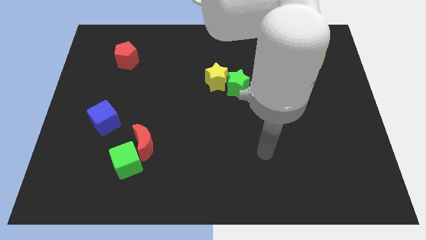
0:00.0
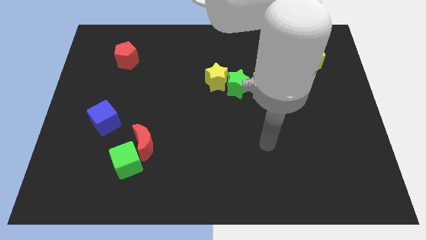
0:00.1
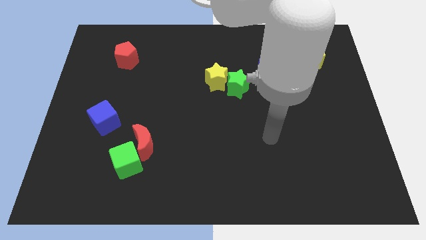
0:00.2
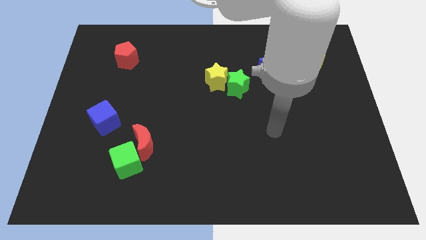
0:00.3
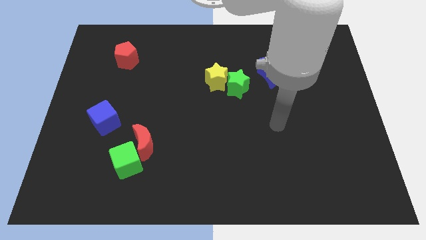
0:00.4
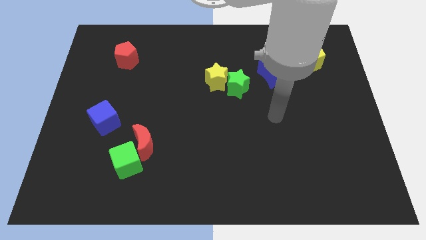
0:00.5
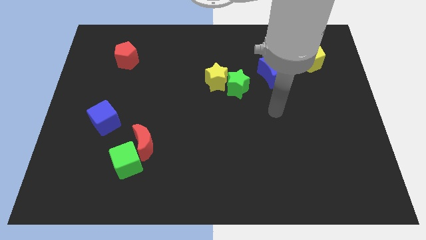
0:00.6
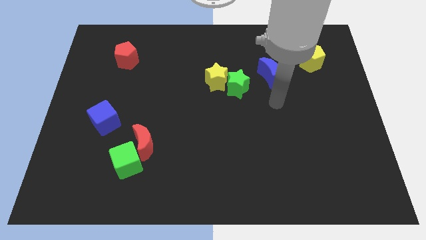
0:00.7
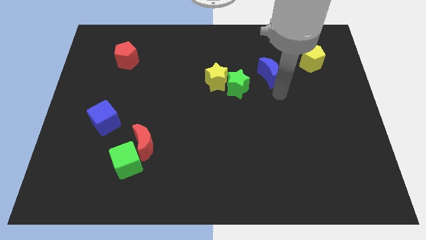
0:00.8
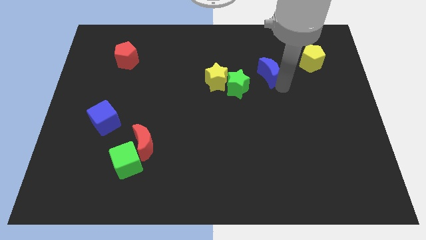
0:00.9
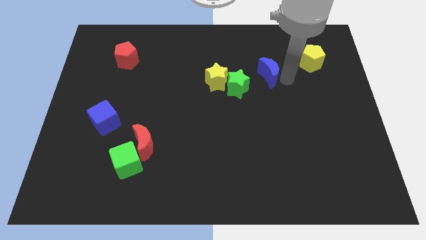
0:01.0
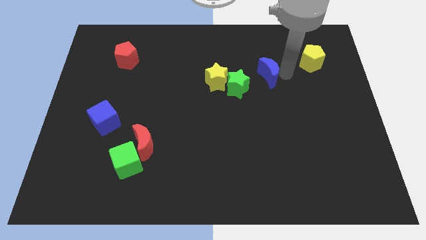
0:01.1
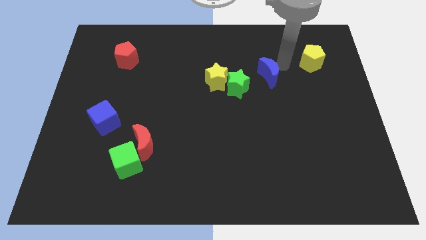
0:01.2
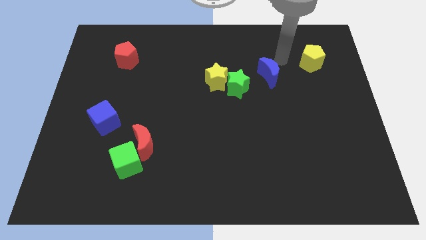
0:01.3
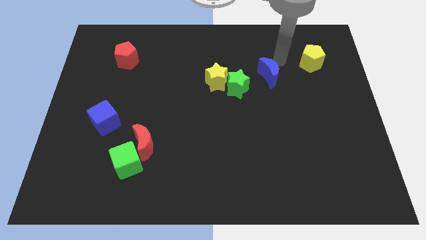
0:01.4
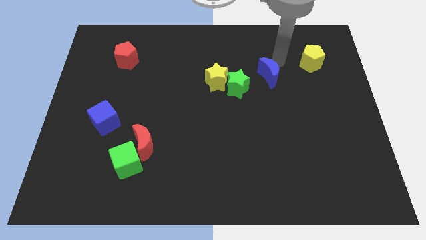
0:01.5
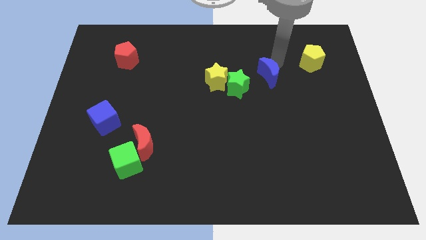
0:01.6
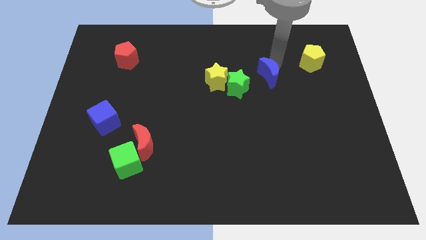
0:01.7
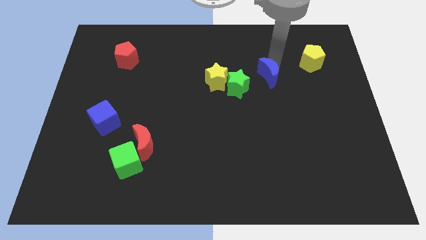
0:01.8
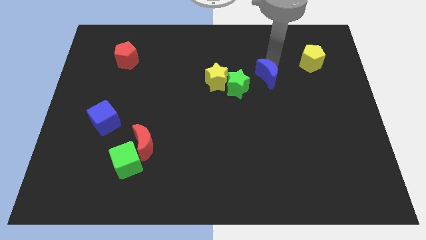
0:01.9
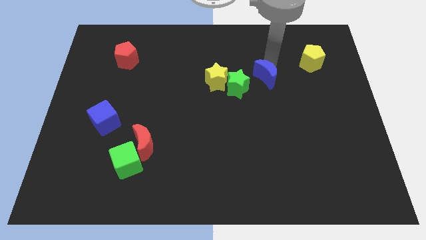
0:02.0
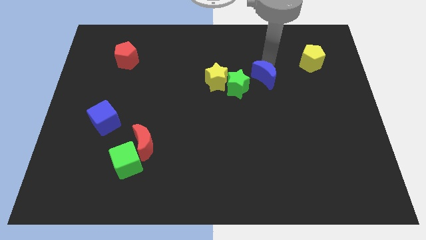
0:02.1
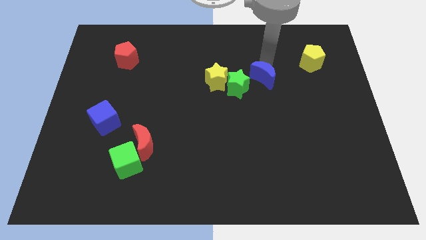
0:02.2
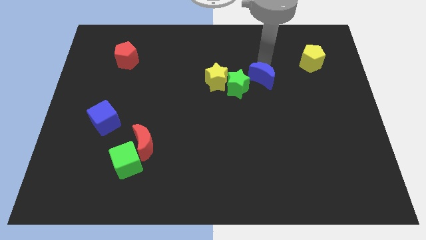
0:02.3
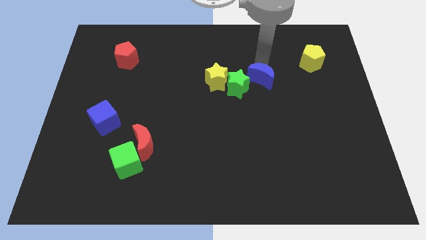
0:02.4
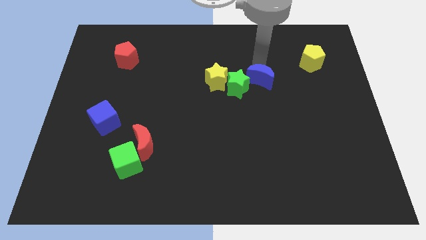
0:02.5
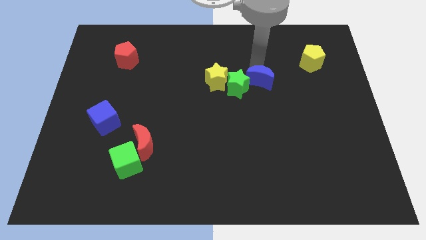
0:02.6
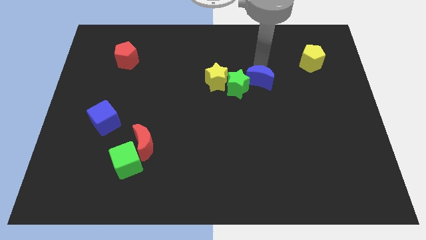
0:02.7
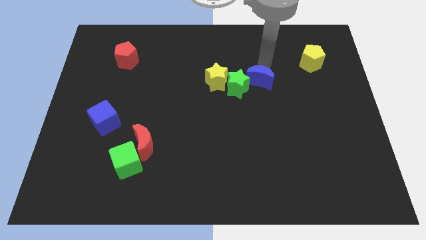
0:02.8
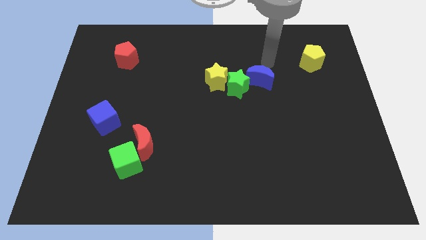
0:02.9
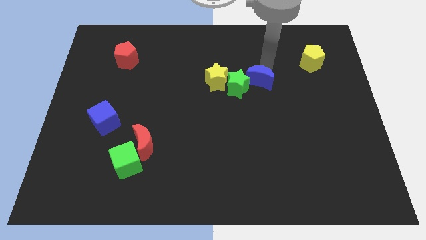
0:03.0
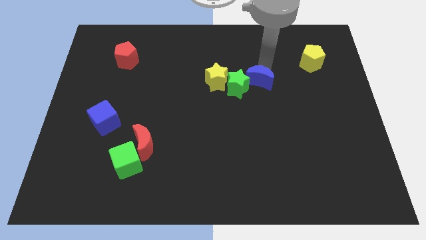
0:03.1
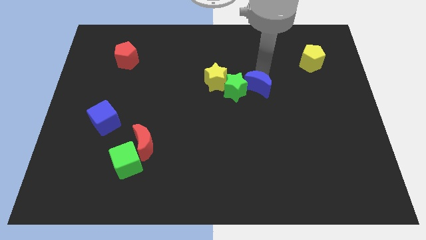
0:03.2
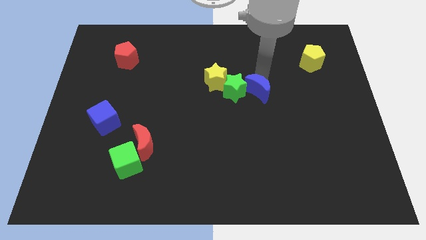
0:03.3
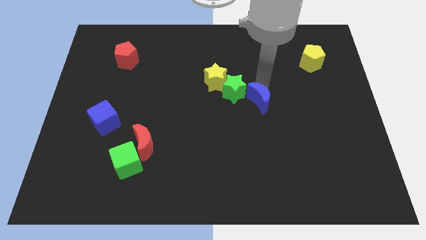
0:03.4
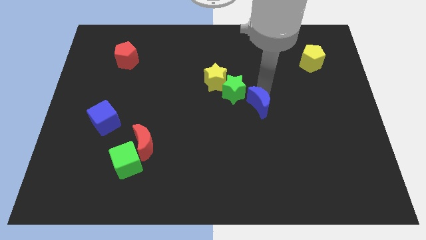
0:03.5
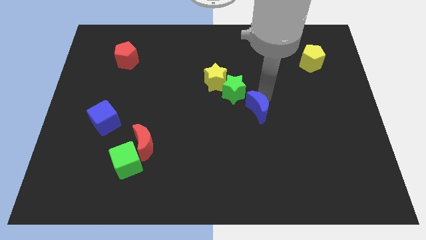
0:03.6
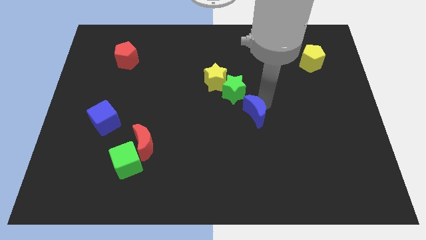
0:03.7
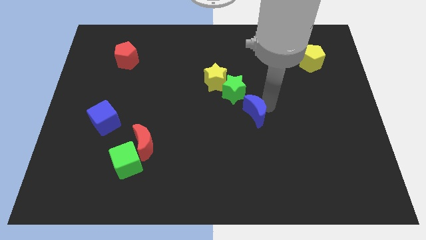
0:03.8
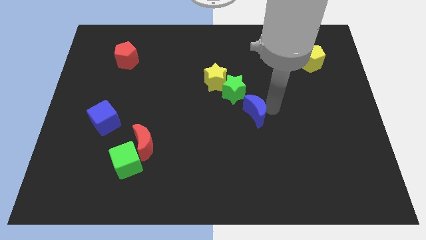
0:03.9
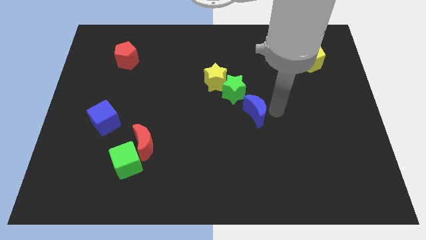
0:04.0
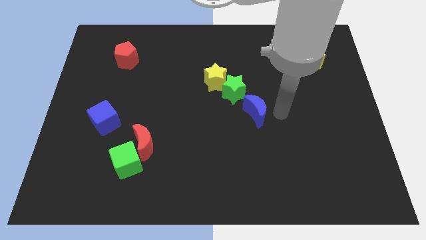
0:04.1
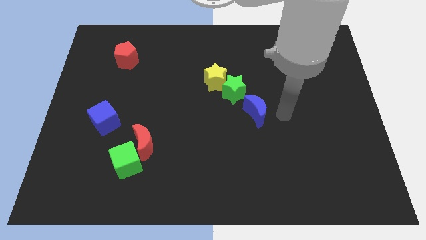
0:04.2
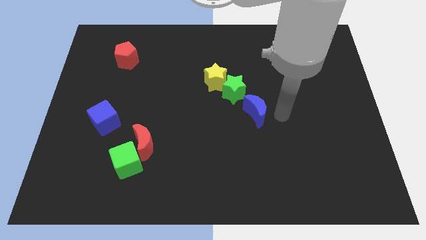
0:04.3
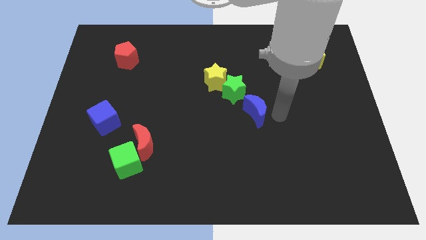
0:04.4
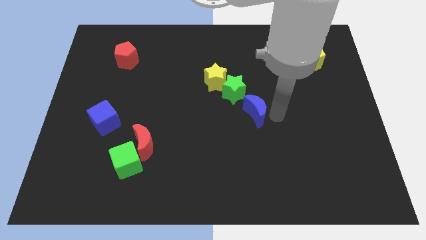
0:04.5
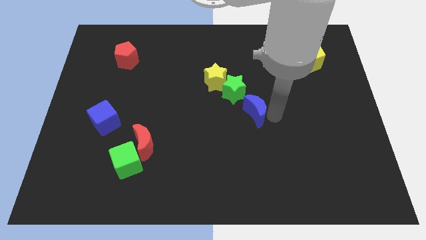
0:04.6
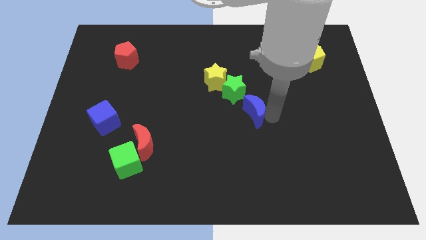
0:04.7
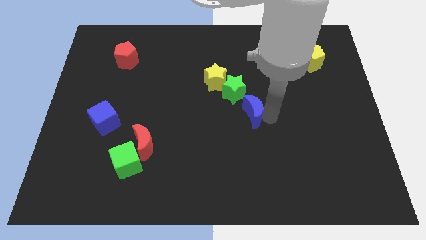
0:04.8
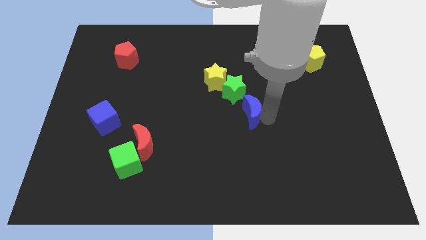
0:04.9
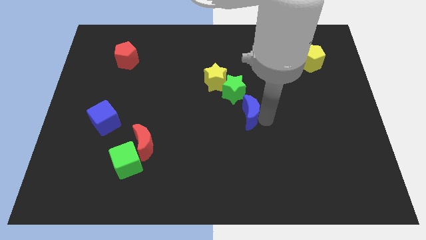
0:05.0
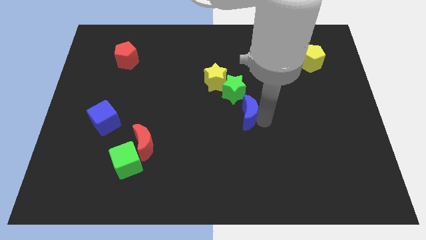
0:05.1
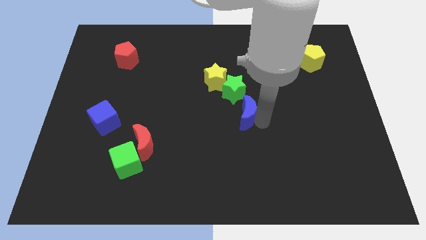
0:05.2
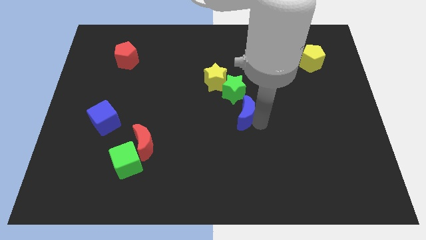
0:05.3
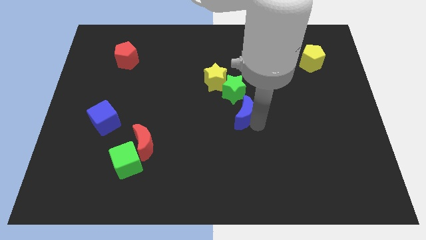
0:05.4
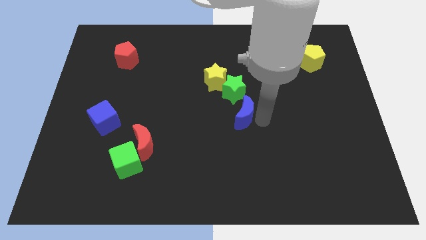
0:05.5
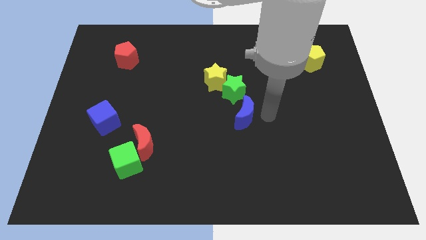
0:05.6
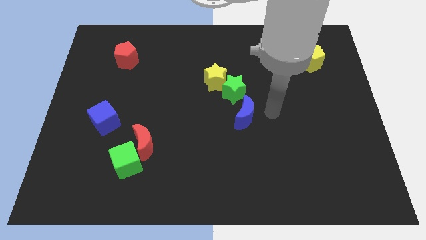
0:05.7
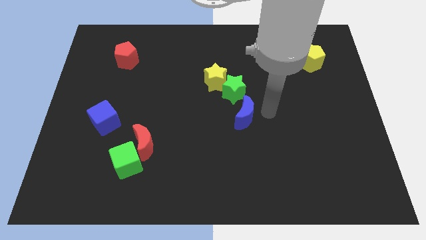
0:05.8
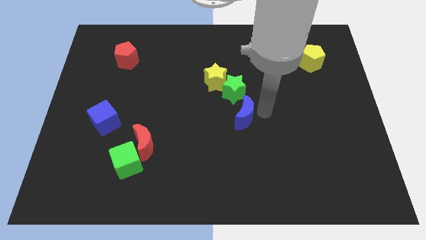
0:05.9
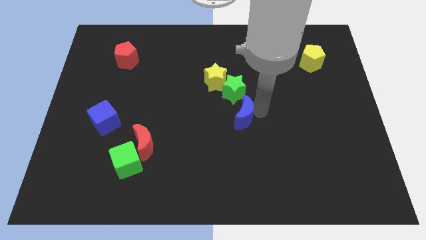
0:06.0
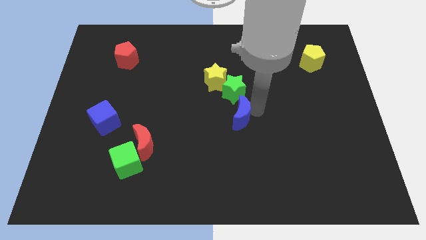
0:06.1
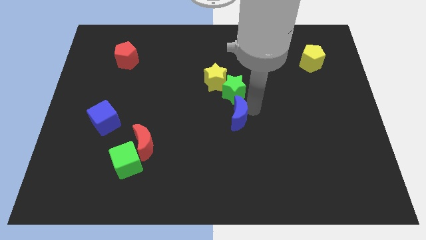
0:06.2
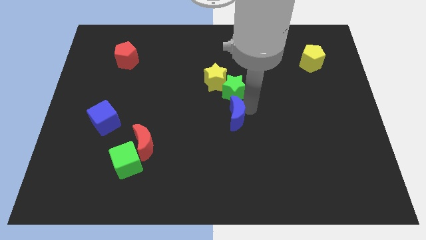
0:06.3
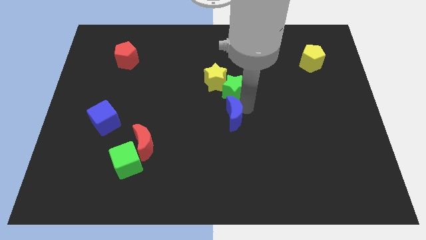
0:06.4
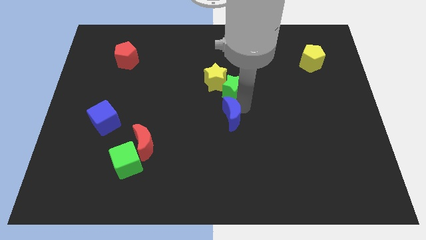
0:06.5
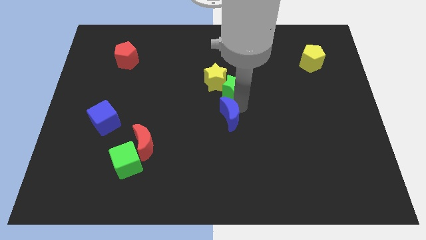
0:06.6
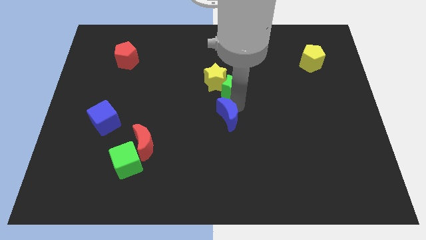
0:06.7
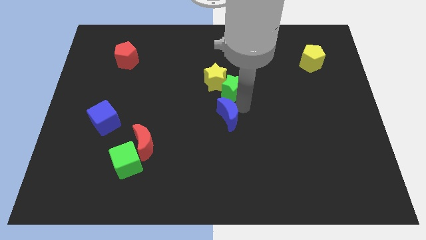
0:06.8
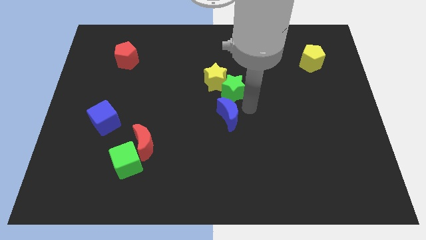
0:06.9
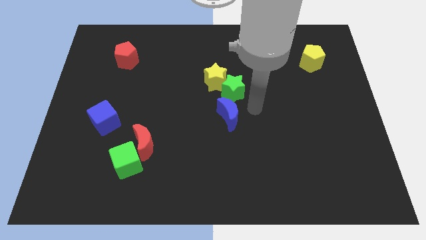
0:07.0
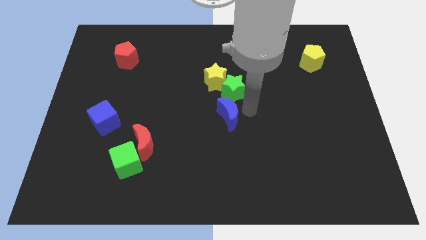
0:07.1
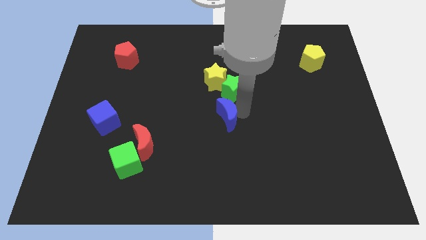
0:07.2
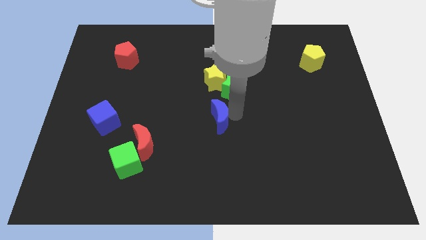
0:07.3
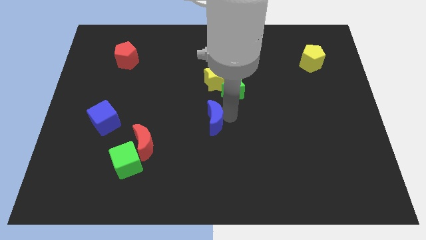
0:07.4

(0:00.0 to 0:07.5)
move the blue moon downwards and left

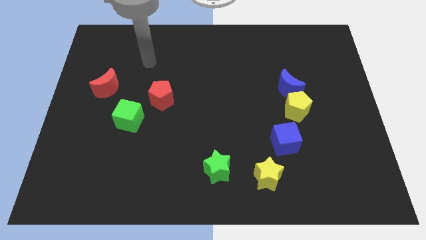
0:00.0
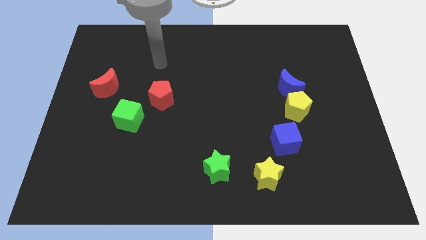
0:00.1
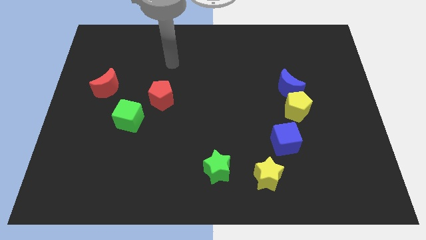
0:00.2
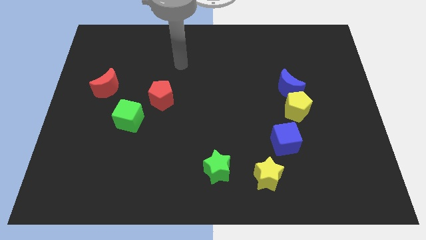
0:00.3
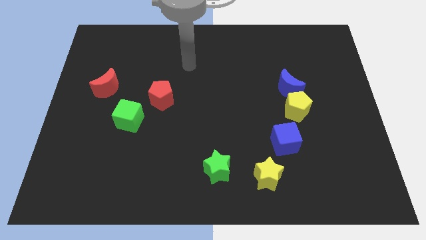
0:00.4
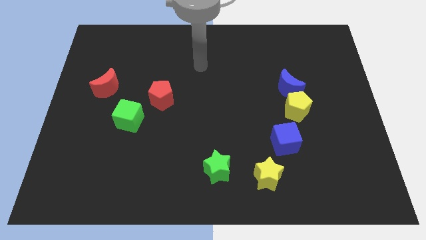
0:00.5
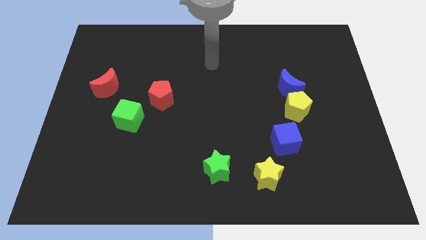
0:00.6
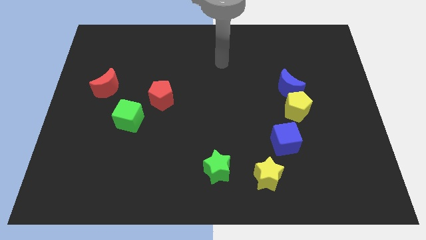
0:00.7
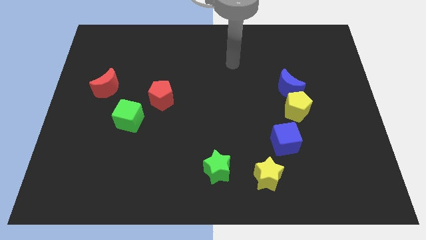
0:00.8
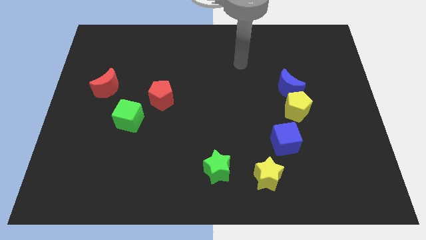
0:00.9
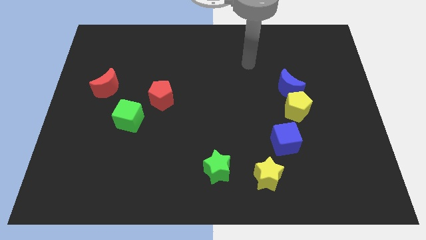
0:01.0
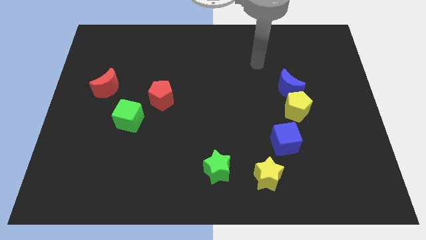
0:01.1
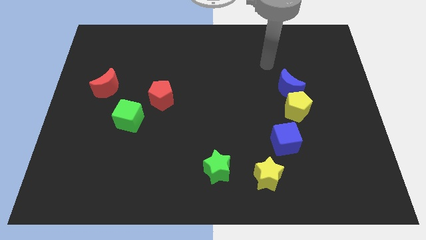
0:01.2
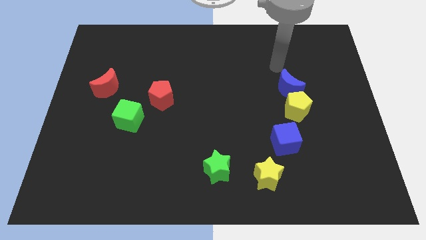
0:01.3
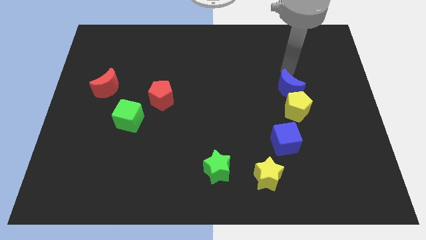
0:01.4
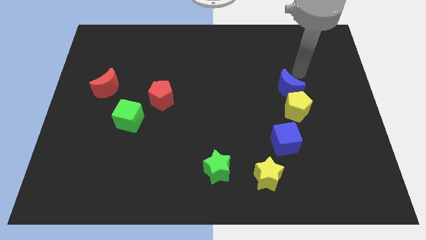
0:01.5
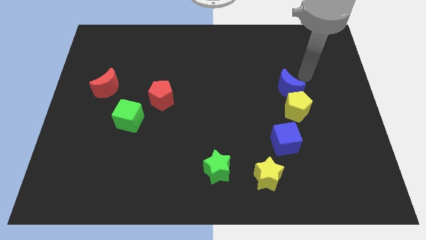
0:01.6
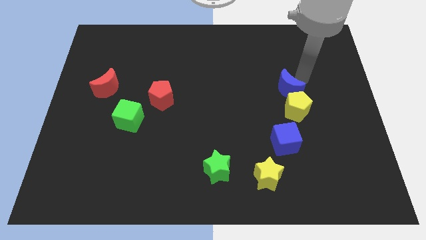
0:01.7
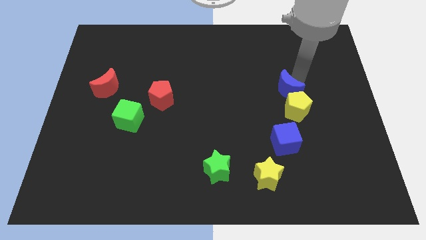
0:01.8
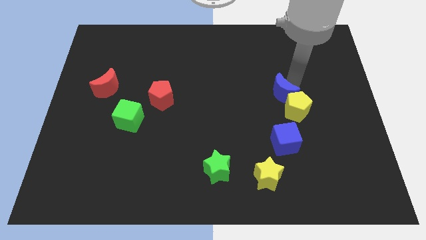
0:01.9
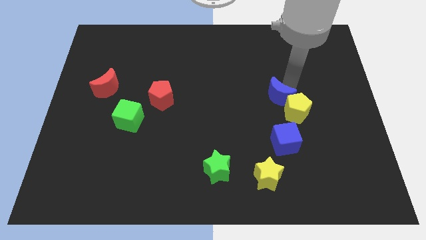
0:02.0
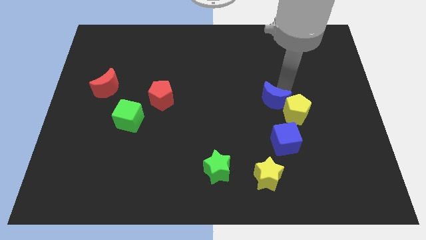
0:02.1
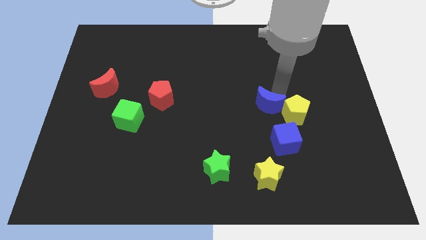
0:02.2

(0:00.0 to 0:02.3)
slide the blue moon downwards and then to the left slightly
